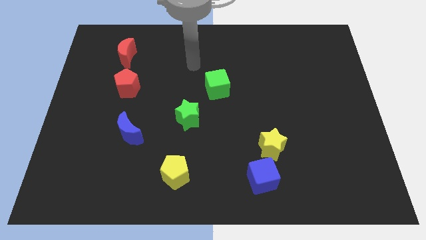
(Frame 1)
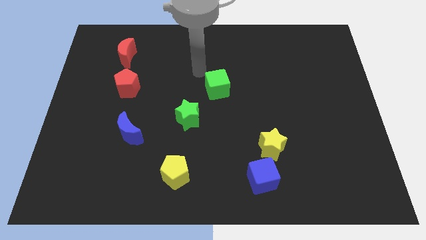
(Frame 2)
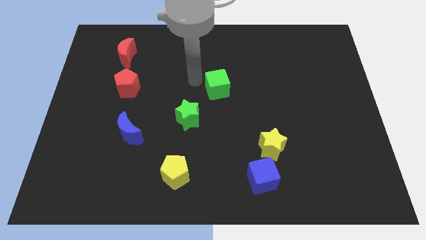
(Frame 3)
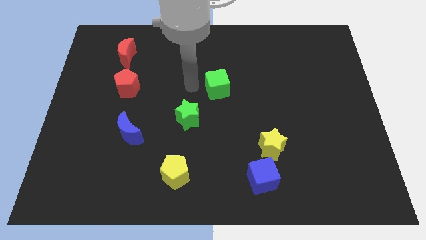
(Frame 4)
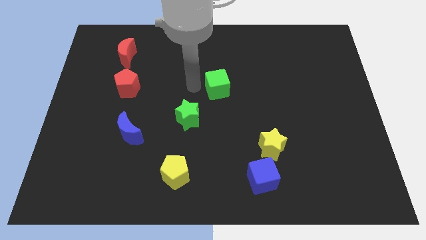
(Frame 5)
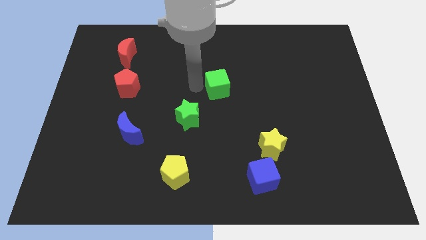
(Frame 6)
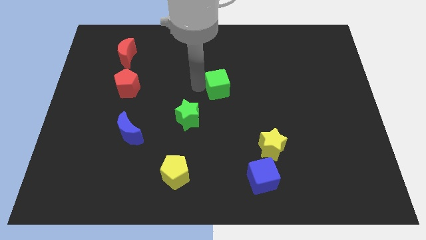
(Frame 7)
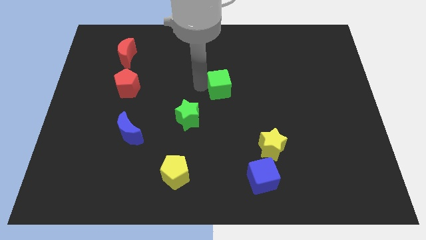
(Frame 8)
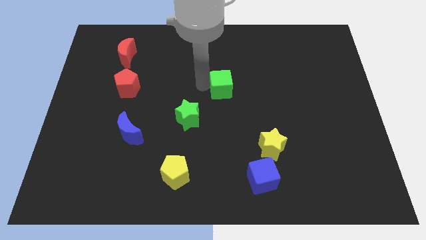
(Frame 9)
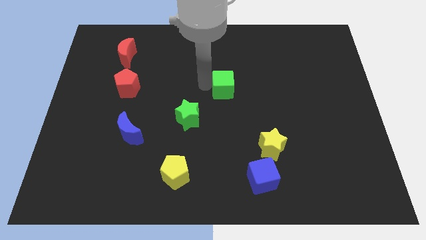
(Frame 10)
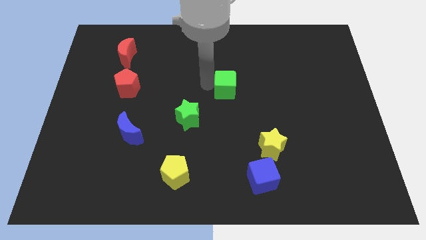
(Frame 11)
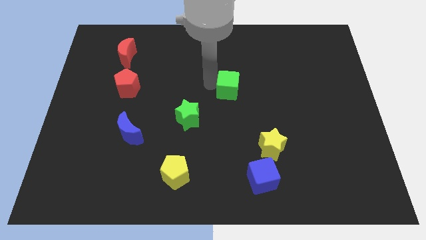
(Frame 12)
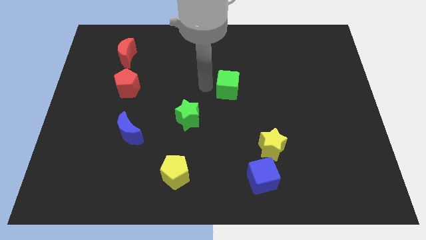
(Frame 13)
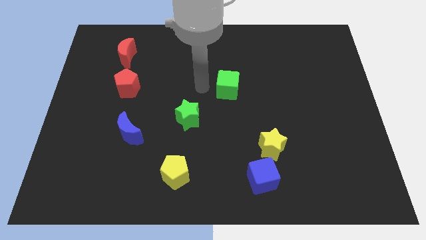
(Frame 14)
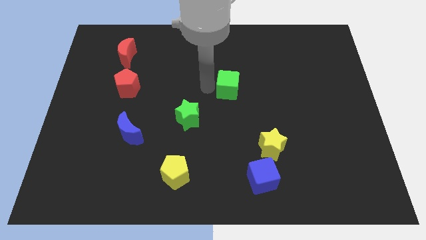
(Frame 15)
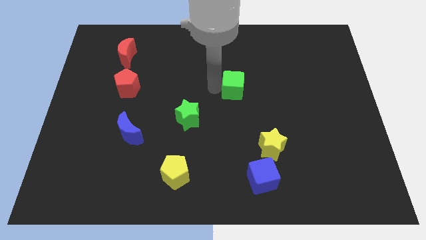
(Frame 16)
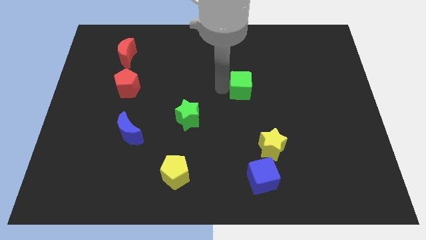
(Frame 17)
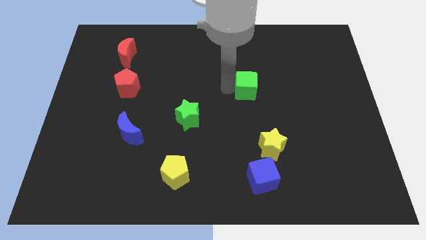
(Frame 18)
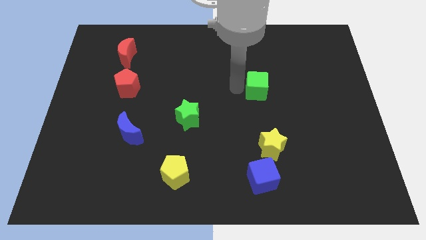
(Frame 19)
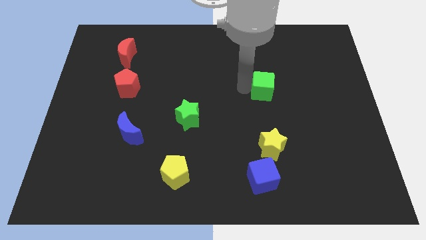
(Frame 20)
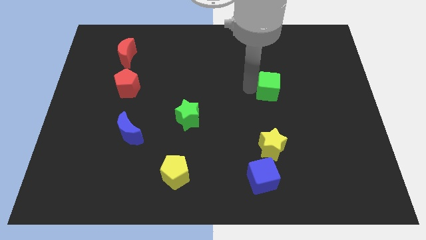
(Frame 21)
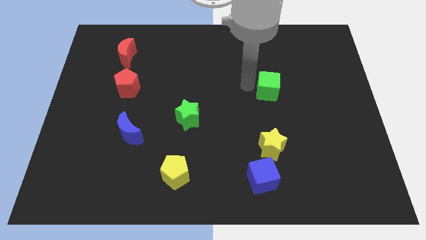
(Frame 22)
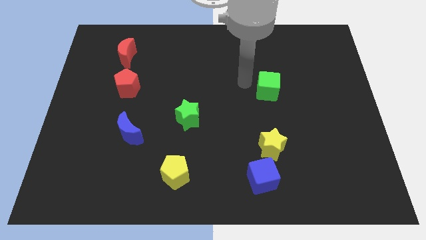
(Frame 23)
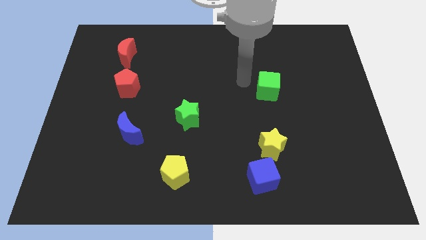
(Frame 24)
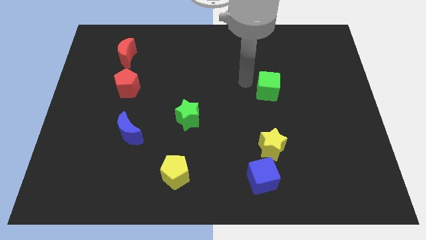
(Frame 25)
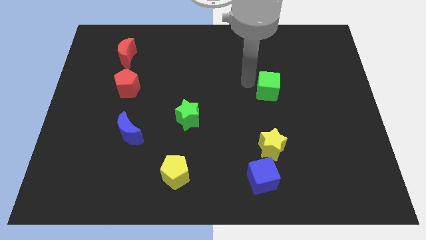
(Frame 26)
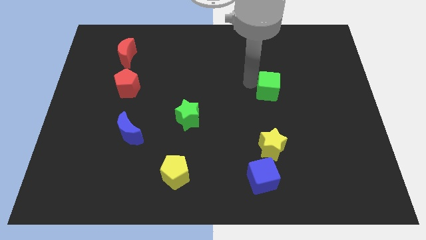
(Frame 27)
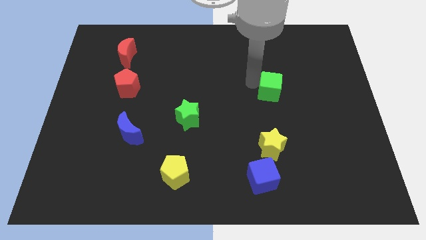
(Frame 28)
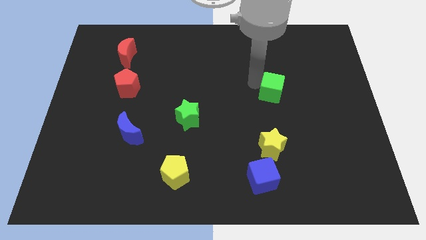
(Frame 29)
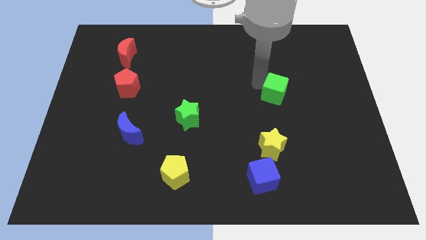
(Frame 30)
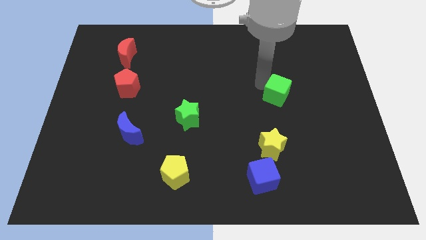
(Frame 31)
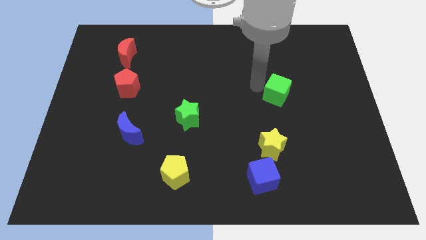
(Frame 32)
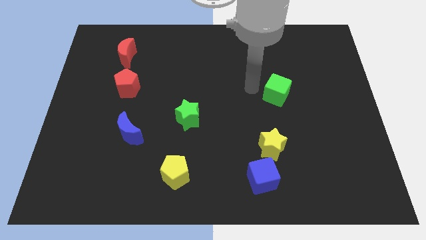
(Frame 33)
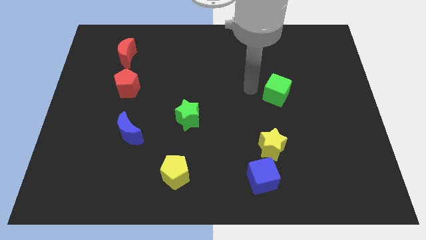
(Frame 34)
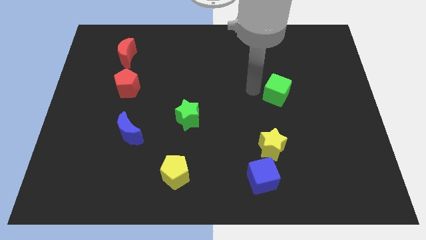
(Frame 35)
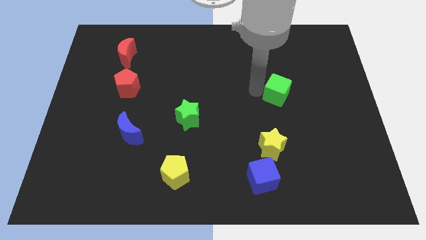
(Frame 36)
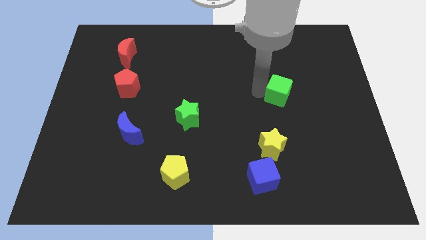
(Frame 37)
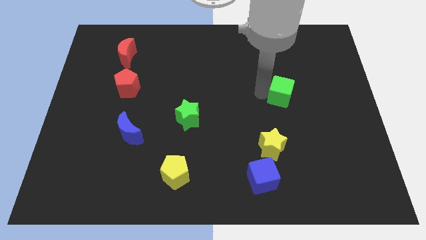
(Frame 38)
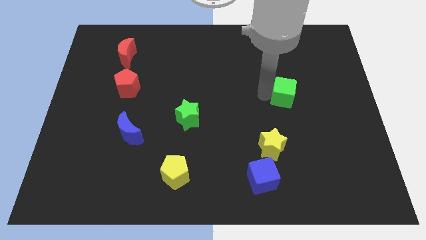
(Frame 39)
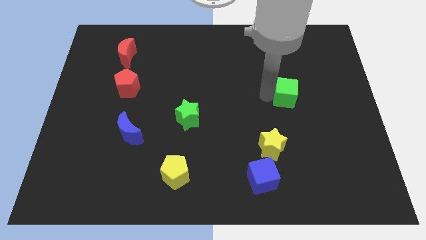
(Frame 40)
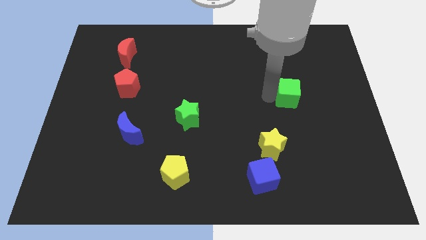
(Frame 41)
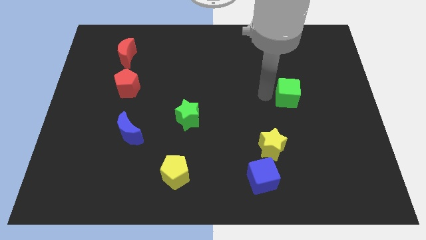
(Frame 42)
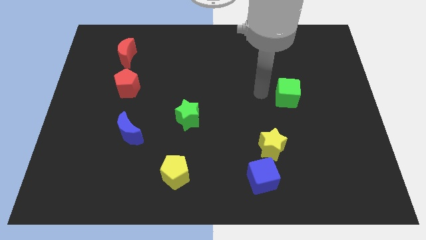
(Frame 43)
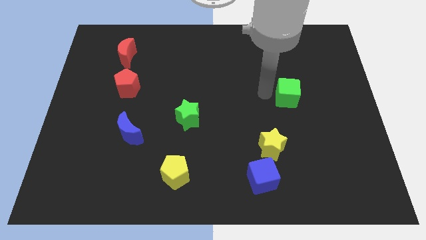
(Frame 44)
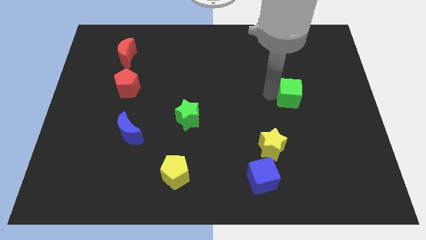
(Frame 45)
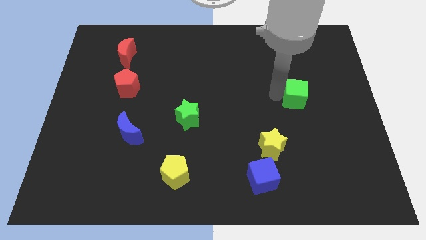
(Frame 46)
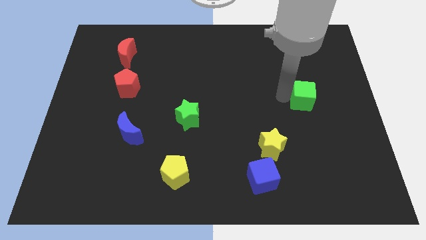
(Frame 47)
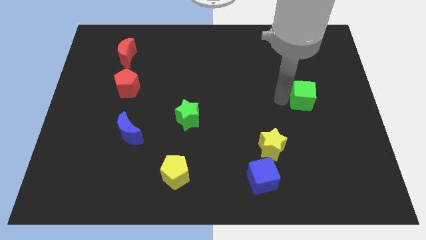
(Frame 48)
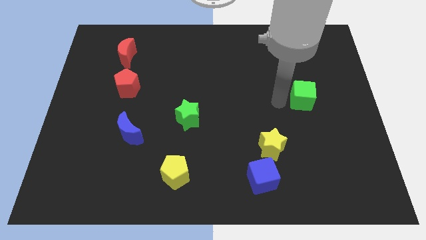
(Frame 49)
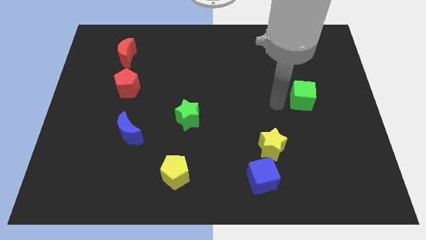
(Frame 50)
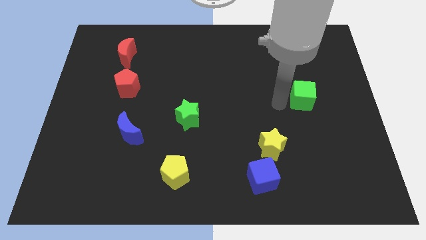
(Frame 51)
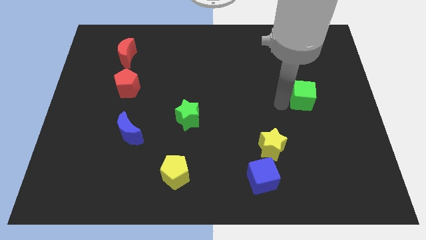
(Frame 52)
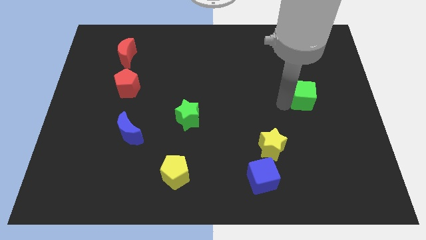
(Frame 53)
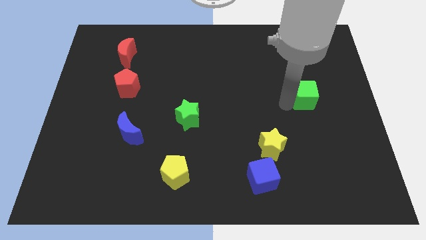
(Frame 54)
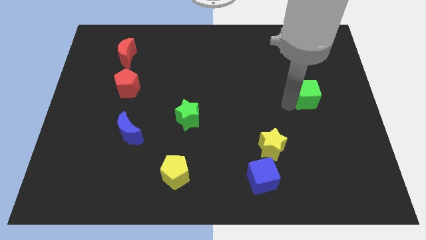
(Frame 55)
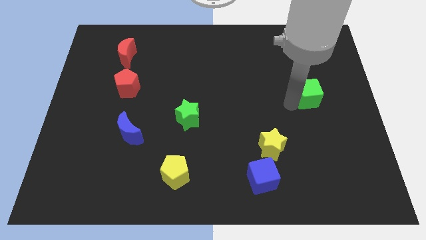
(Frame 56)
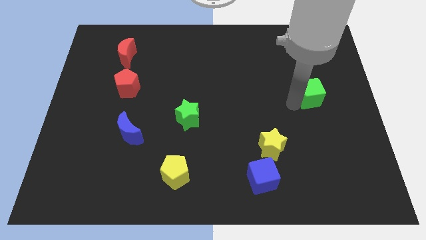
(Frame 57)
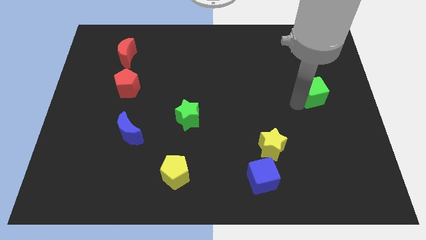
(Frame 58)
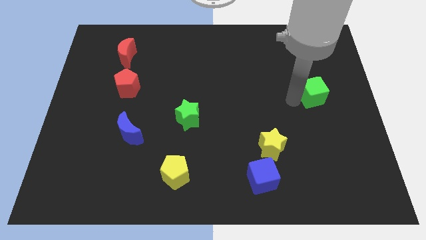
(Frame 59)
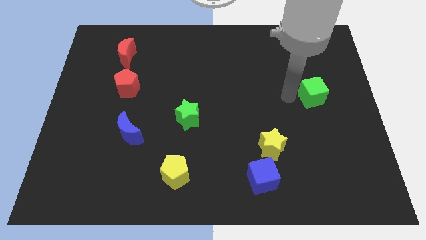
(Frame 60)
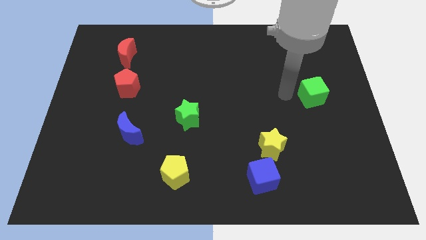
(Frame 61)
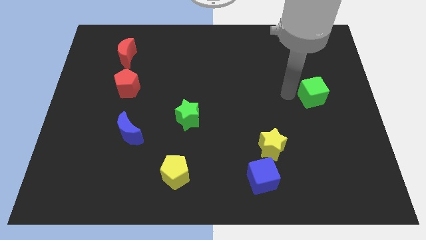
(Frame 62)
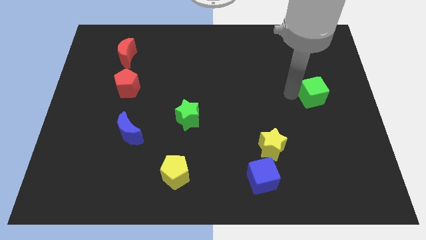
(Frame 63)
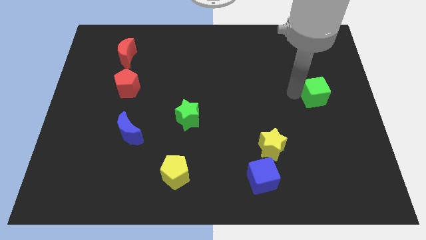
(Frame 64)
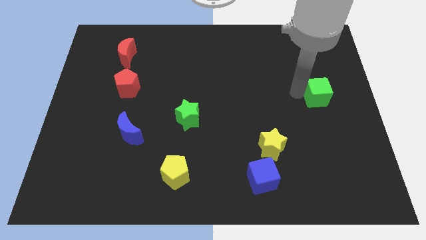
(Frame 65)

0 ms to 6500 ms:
push the green cube to the right side
